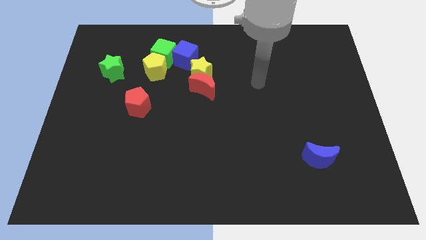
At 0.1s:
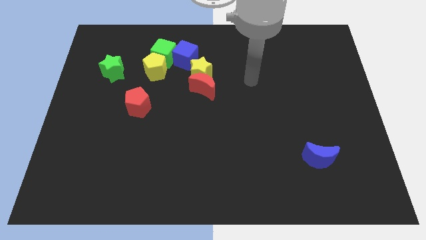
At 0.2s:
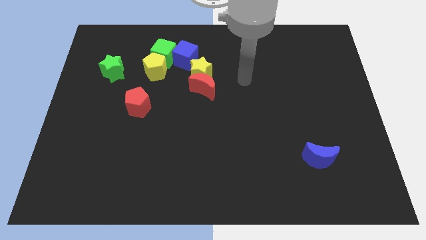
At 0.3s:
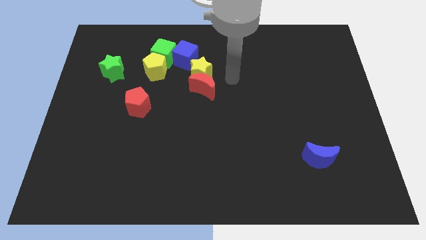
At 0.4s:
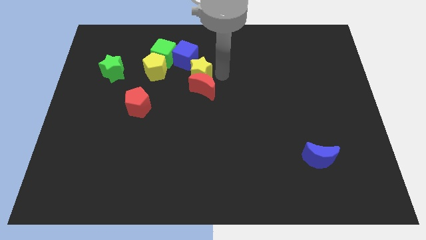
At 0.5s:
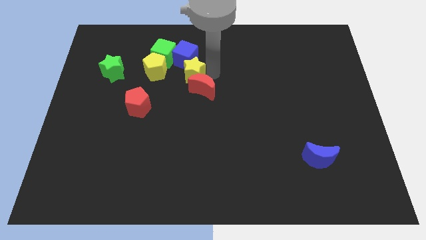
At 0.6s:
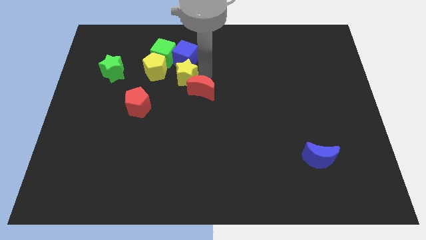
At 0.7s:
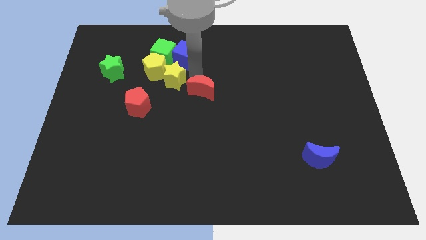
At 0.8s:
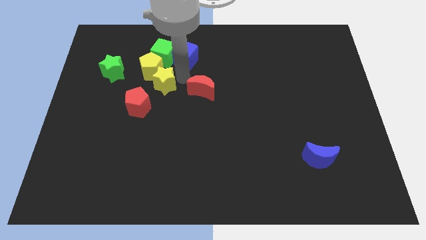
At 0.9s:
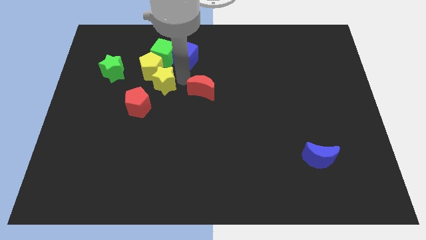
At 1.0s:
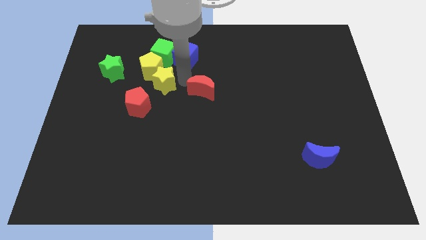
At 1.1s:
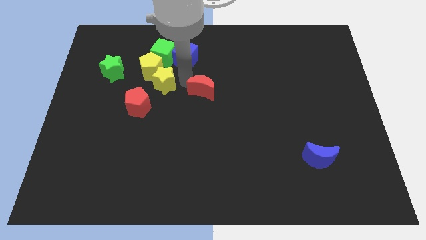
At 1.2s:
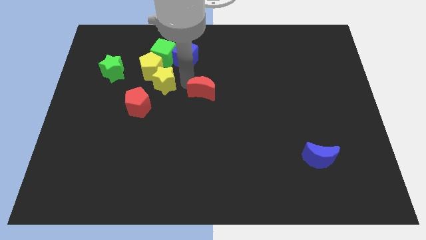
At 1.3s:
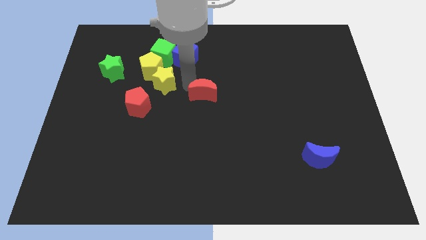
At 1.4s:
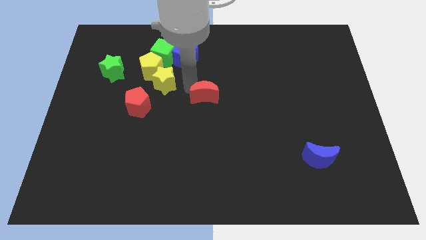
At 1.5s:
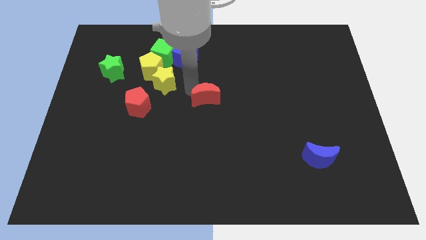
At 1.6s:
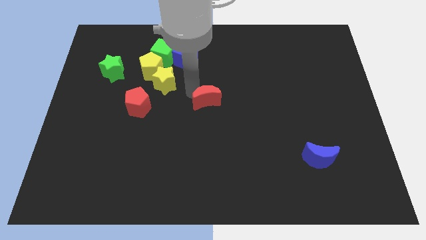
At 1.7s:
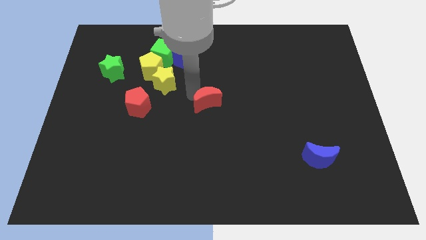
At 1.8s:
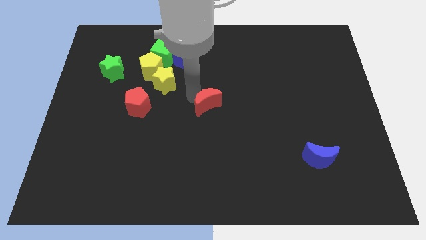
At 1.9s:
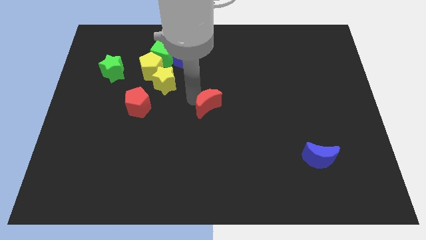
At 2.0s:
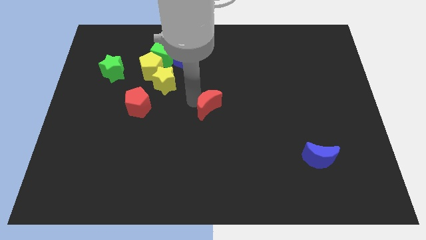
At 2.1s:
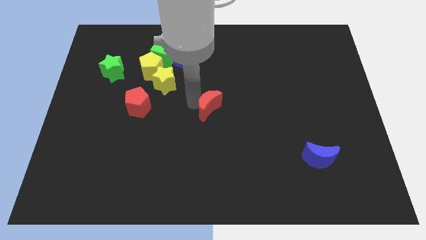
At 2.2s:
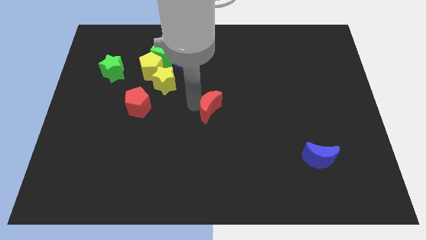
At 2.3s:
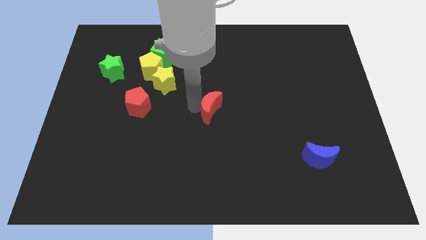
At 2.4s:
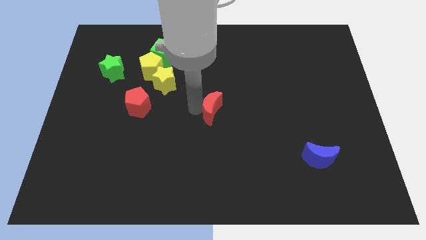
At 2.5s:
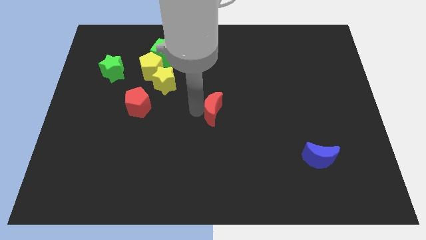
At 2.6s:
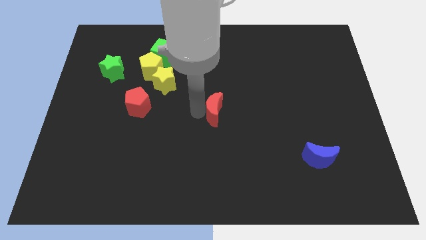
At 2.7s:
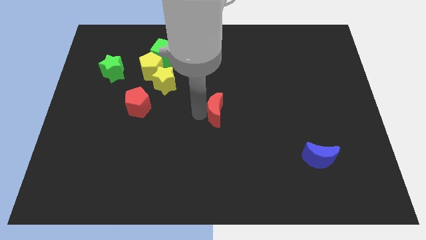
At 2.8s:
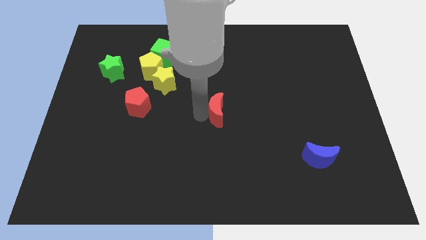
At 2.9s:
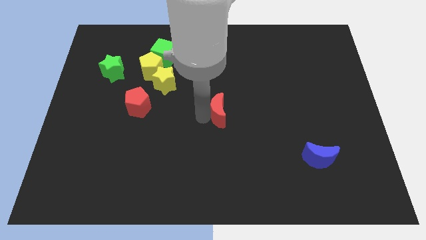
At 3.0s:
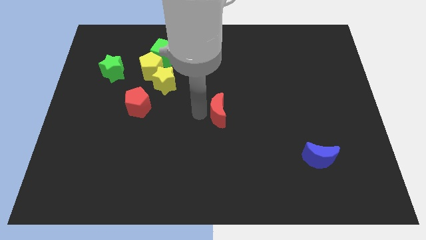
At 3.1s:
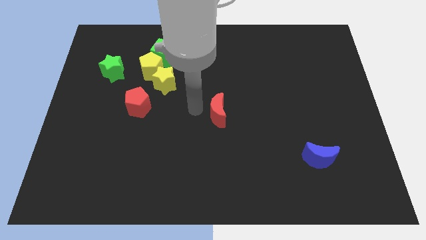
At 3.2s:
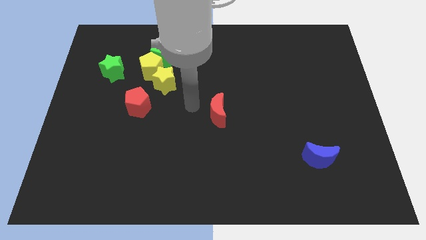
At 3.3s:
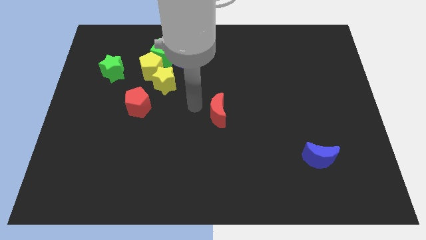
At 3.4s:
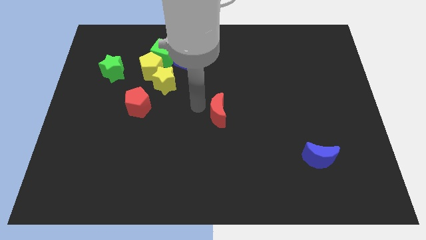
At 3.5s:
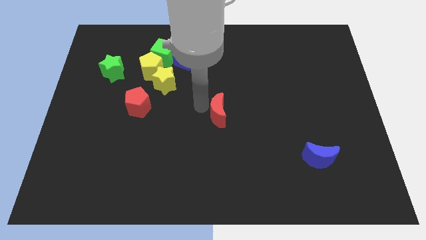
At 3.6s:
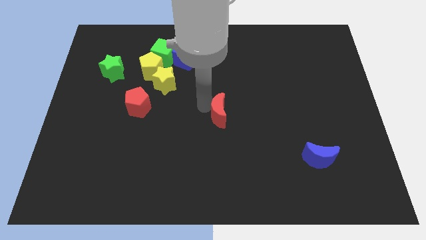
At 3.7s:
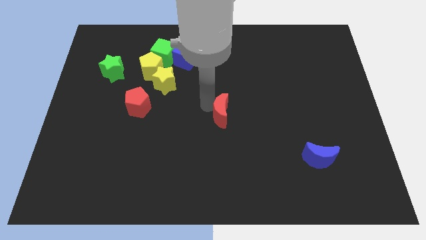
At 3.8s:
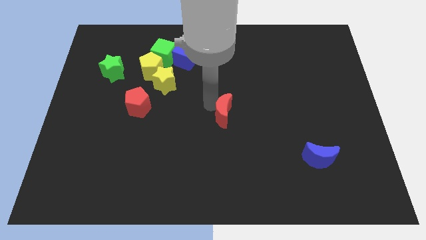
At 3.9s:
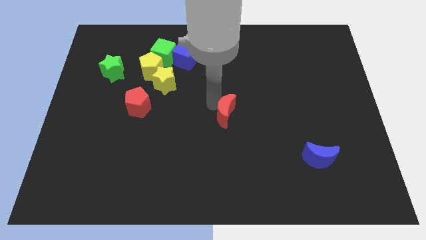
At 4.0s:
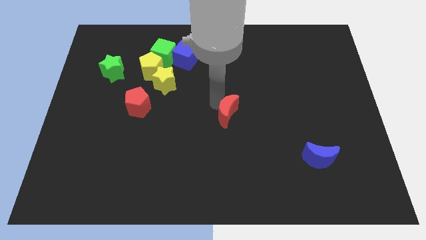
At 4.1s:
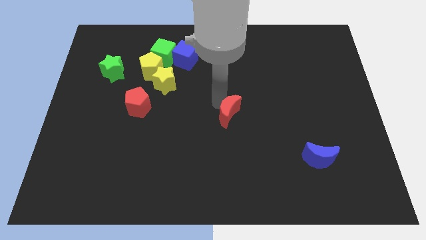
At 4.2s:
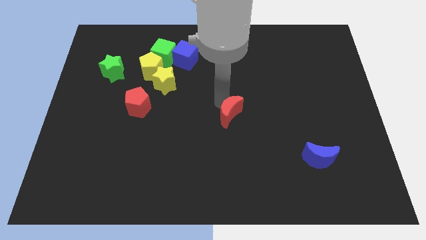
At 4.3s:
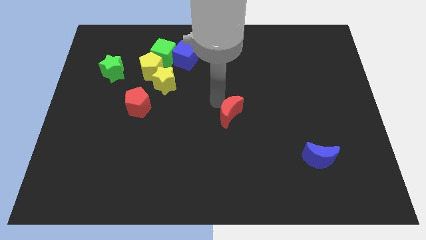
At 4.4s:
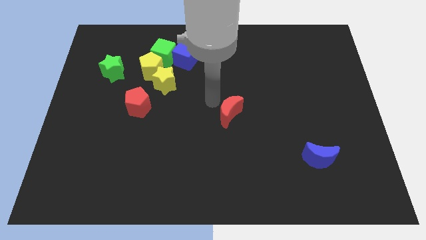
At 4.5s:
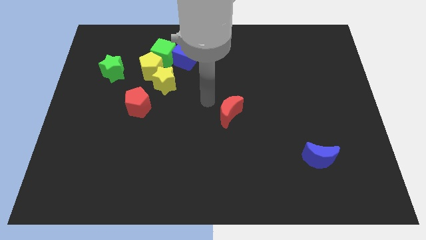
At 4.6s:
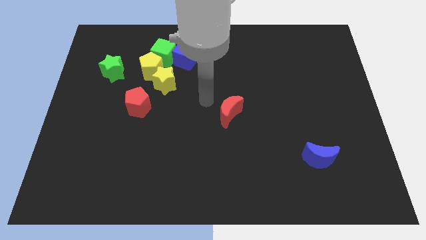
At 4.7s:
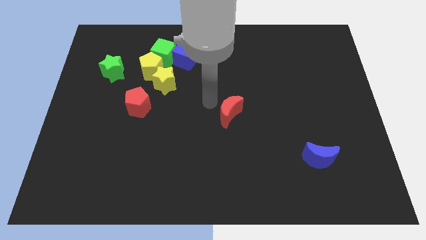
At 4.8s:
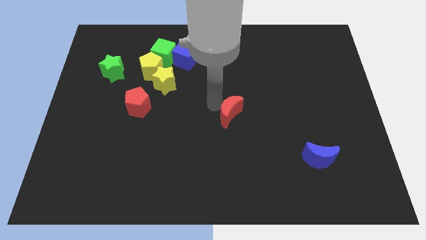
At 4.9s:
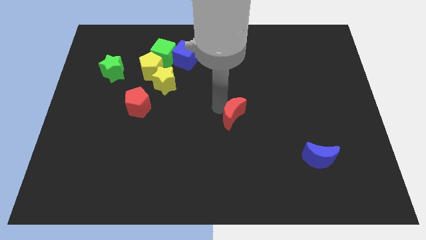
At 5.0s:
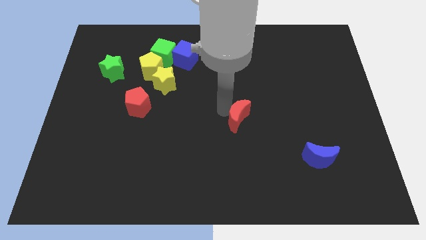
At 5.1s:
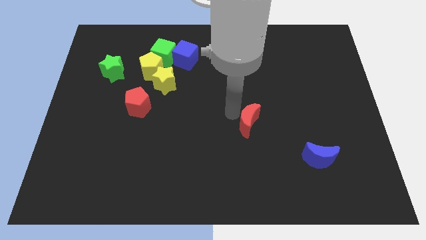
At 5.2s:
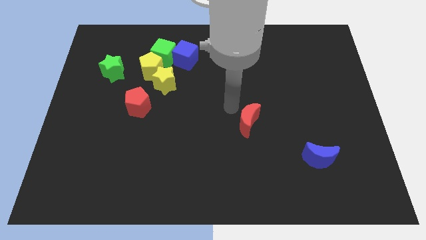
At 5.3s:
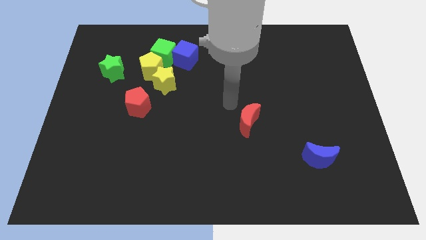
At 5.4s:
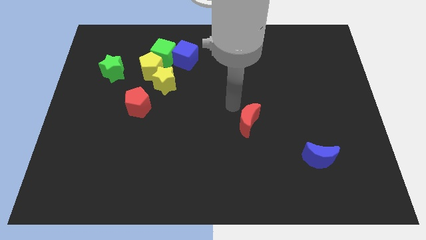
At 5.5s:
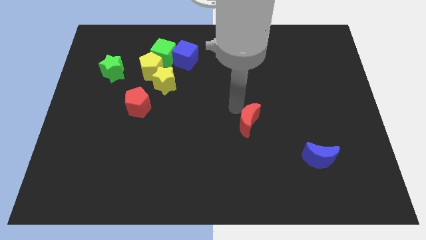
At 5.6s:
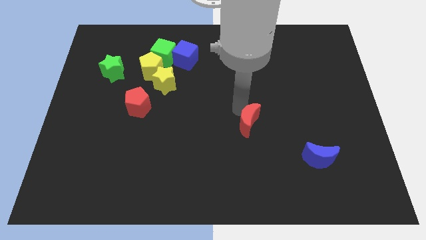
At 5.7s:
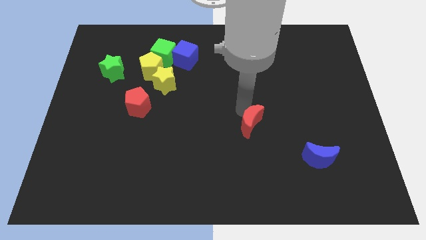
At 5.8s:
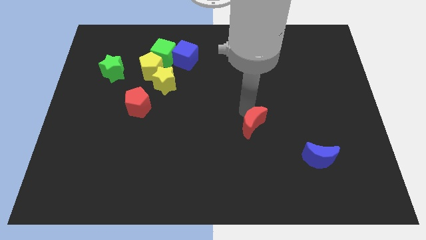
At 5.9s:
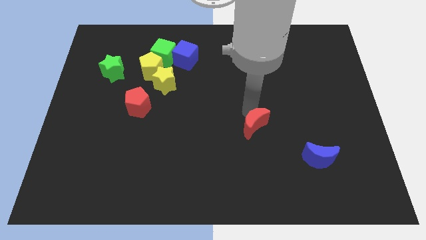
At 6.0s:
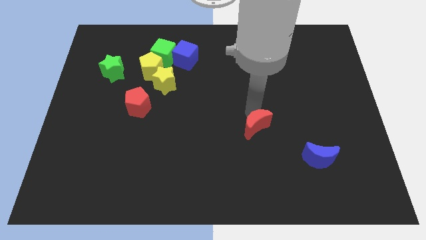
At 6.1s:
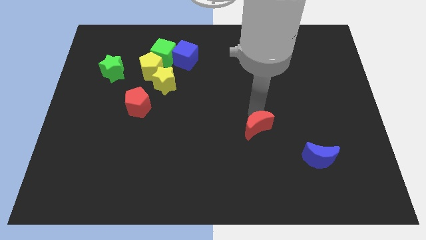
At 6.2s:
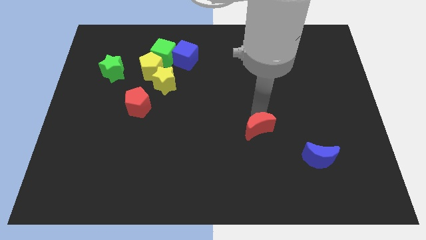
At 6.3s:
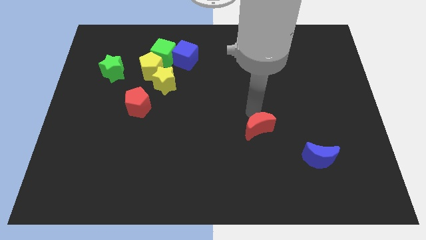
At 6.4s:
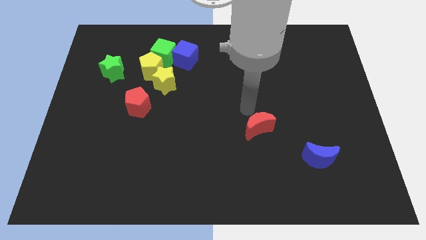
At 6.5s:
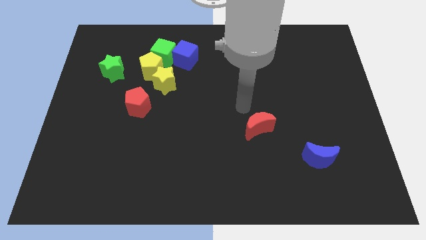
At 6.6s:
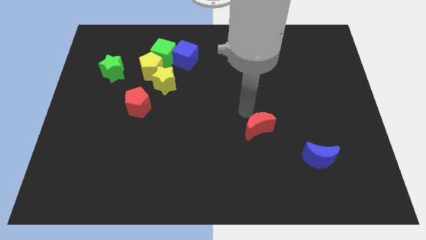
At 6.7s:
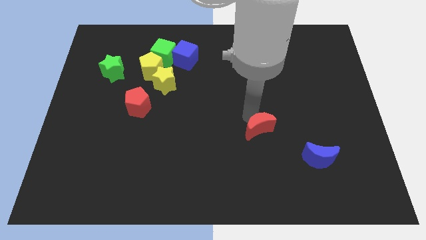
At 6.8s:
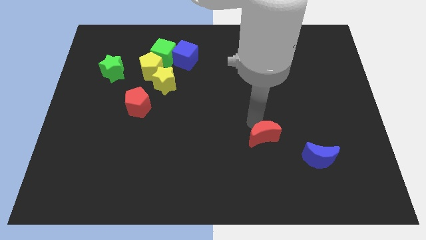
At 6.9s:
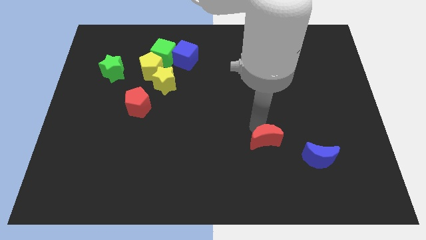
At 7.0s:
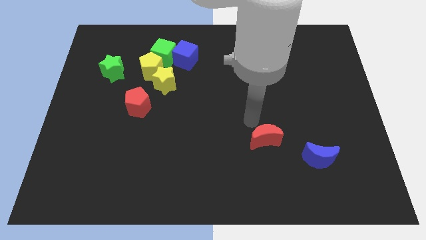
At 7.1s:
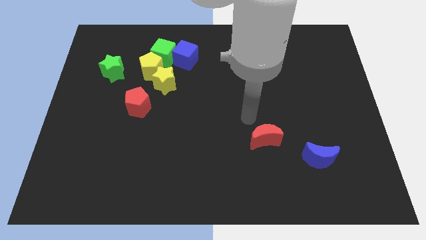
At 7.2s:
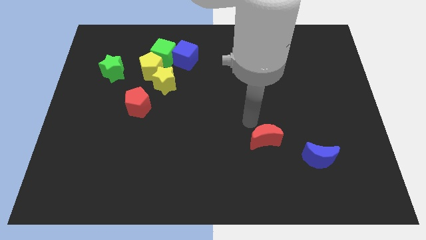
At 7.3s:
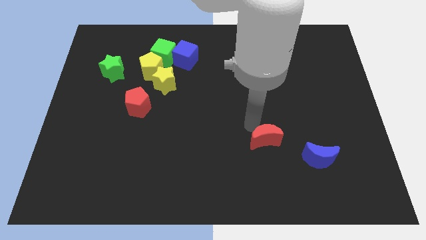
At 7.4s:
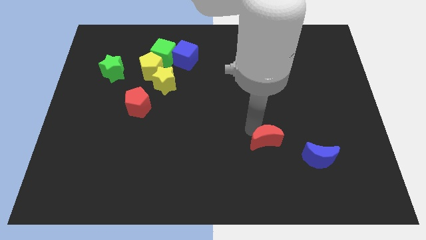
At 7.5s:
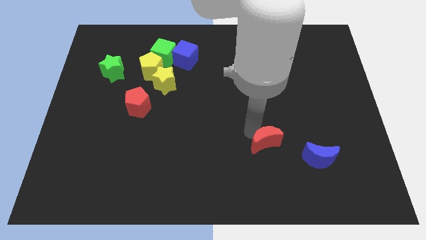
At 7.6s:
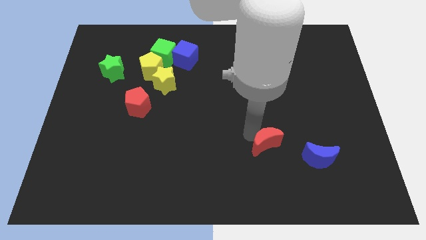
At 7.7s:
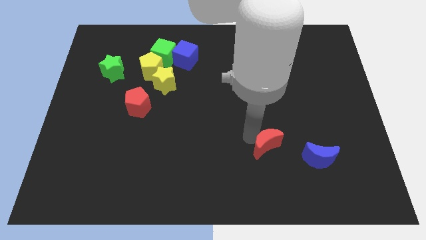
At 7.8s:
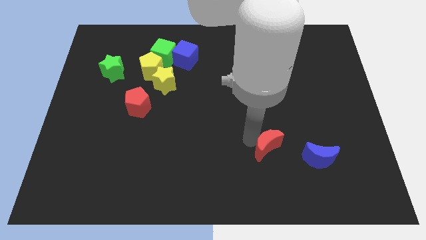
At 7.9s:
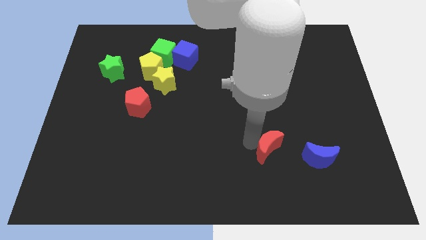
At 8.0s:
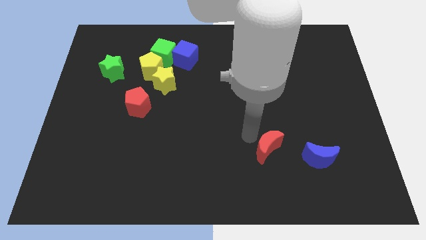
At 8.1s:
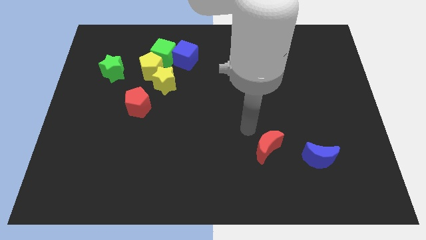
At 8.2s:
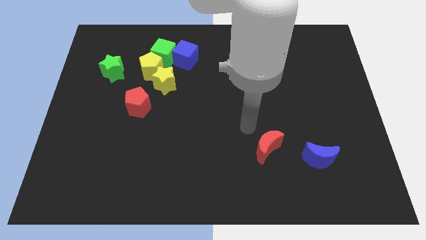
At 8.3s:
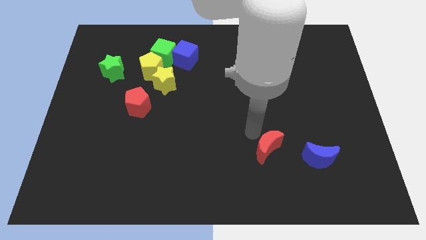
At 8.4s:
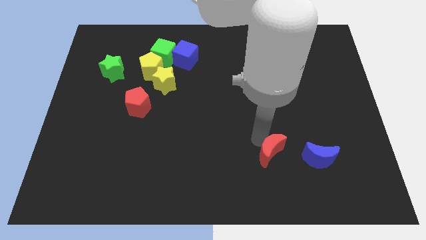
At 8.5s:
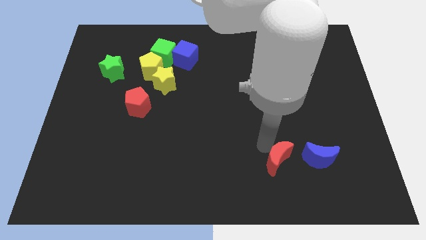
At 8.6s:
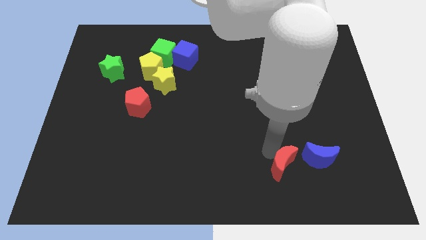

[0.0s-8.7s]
move the red moon to the bottom left side of the blue moon
